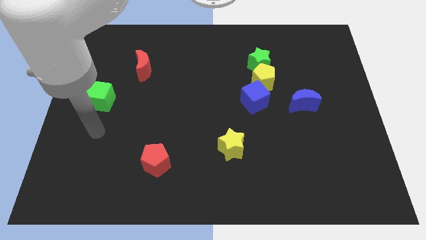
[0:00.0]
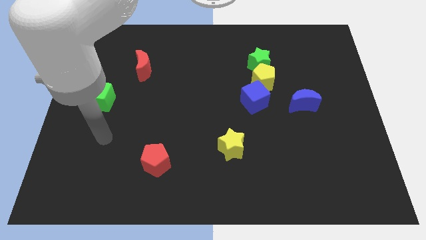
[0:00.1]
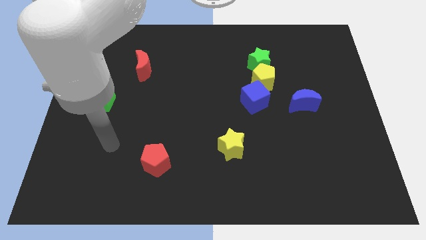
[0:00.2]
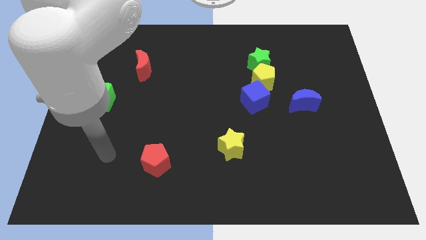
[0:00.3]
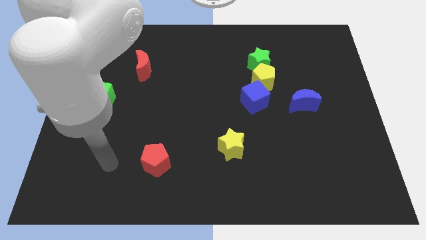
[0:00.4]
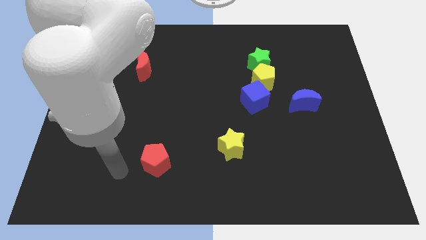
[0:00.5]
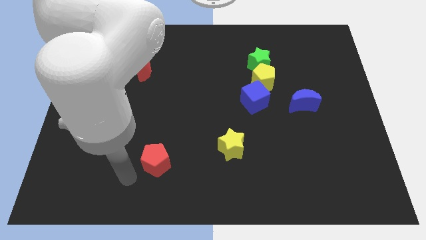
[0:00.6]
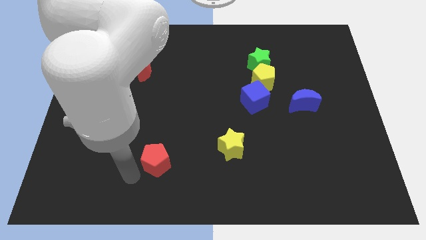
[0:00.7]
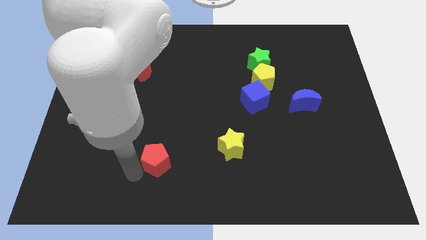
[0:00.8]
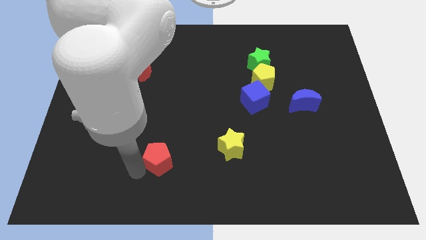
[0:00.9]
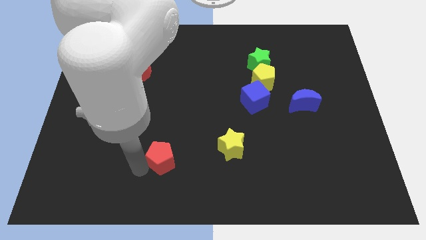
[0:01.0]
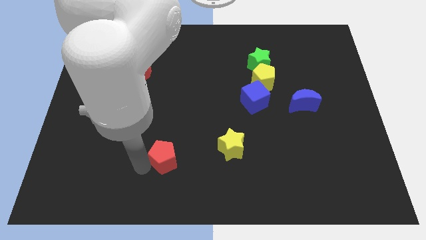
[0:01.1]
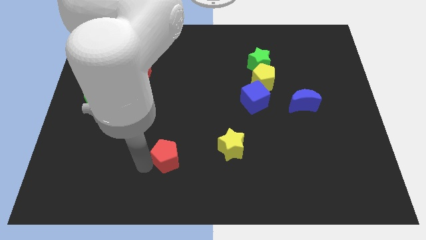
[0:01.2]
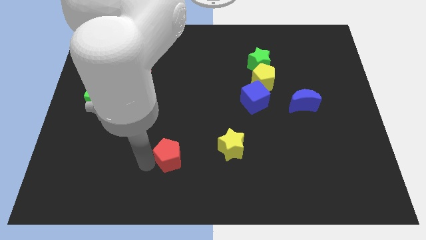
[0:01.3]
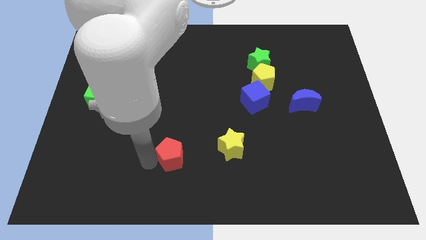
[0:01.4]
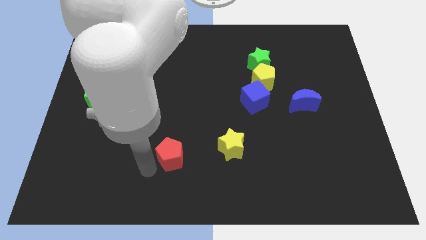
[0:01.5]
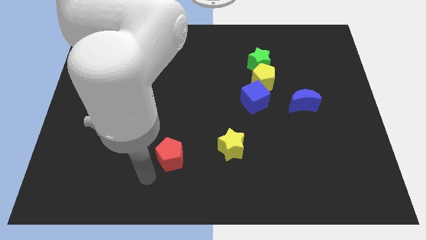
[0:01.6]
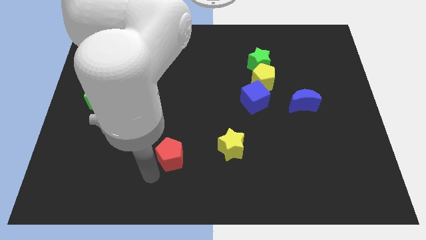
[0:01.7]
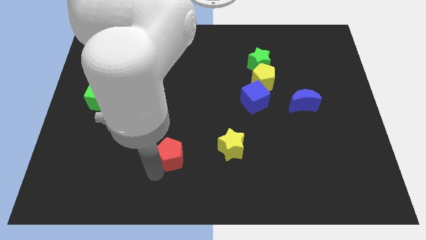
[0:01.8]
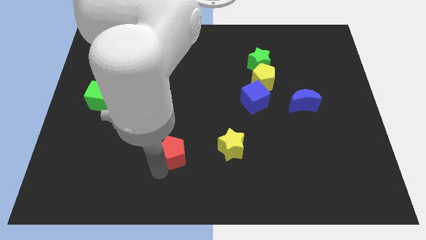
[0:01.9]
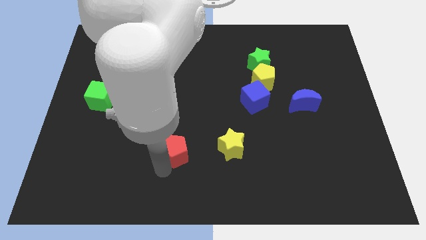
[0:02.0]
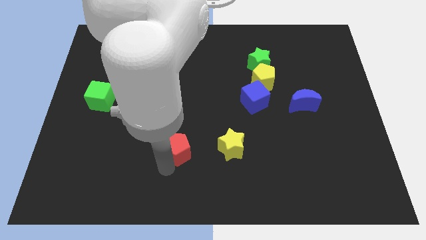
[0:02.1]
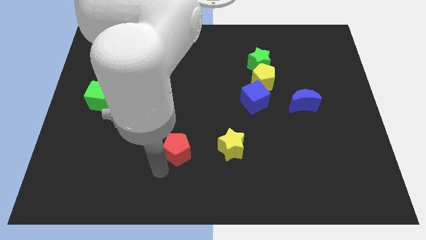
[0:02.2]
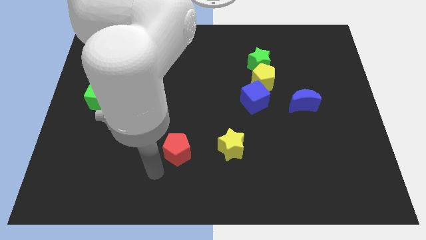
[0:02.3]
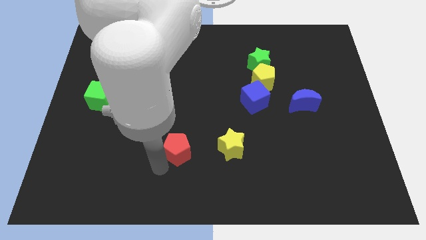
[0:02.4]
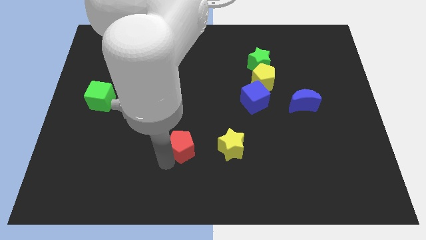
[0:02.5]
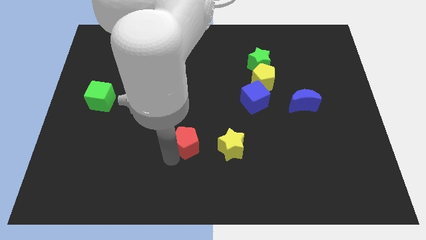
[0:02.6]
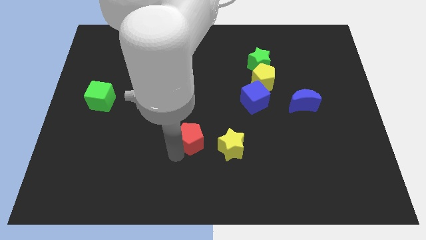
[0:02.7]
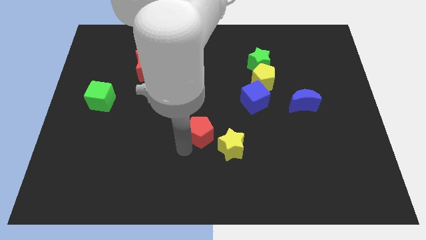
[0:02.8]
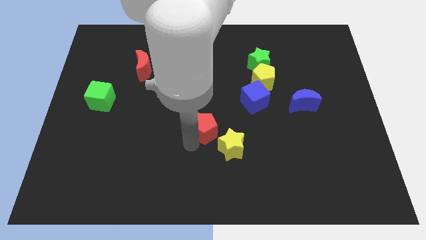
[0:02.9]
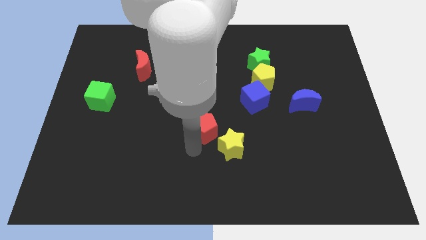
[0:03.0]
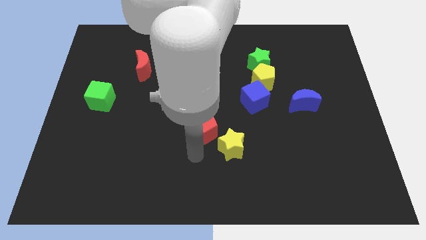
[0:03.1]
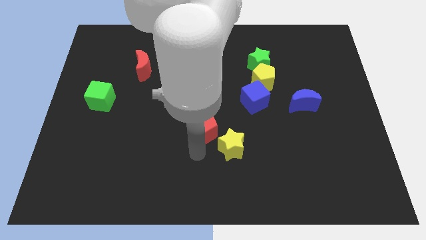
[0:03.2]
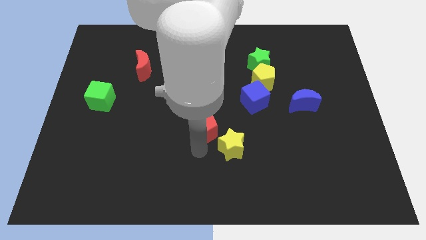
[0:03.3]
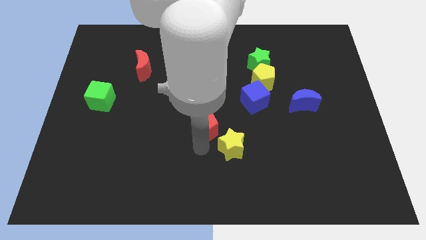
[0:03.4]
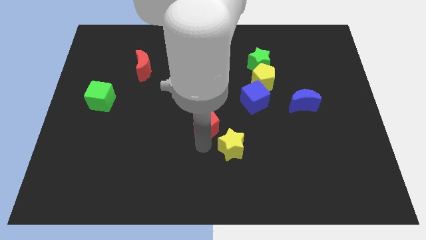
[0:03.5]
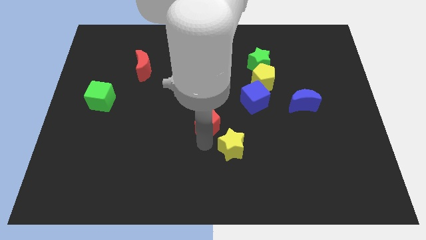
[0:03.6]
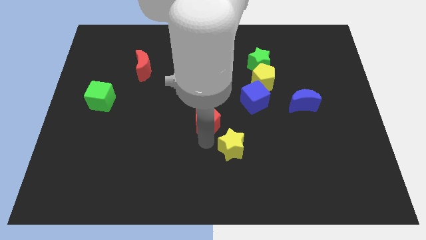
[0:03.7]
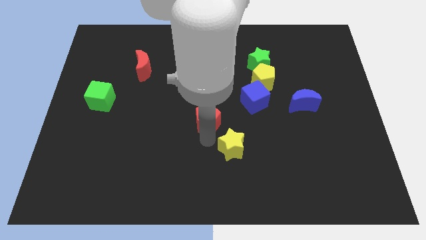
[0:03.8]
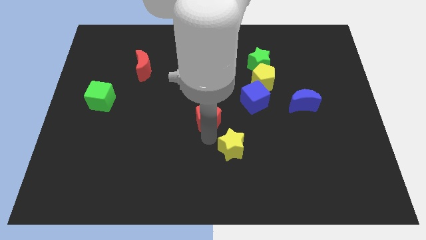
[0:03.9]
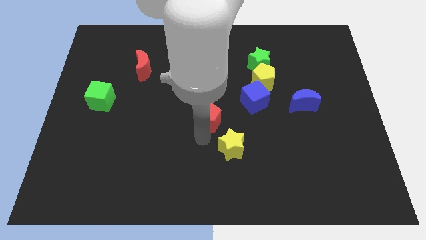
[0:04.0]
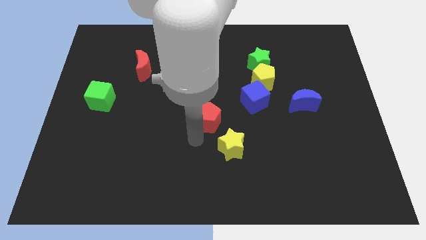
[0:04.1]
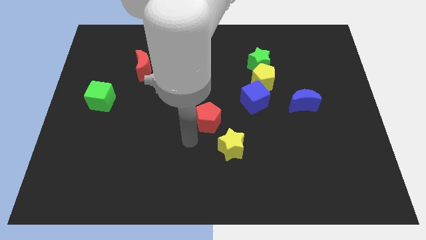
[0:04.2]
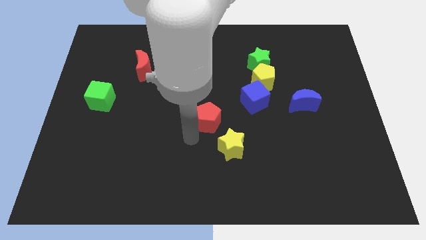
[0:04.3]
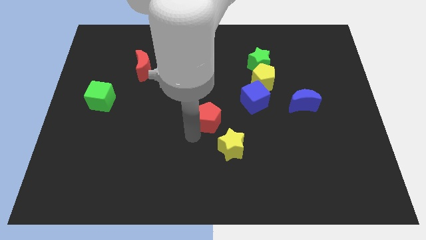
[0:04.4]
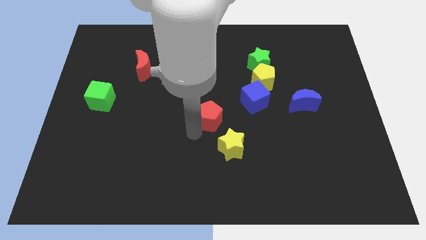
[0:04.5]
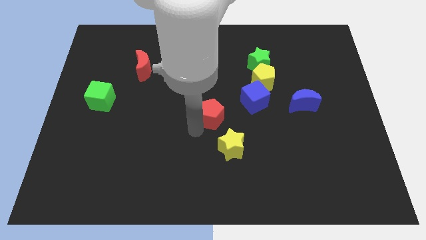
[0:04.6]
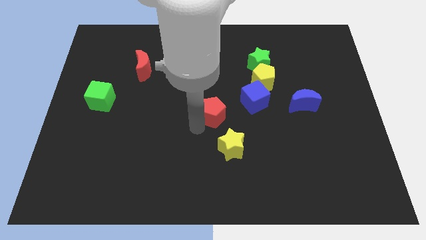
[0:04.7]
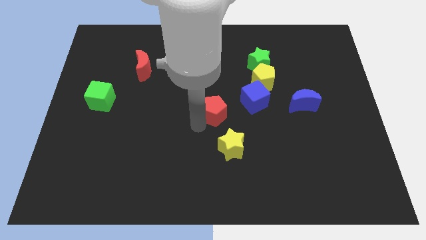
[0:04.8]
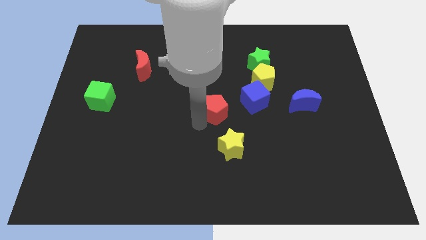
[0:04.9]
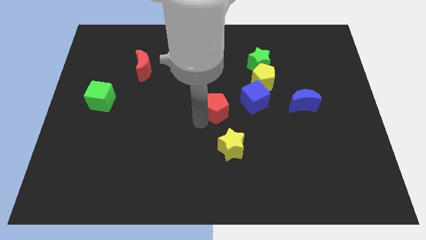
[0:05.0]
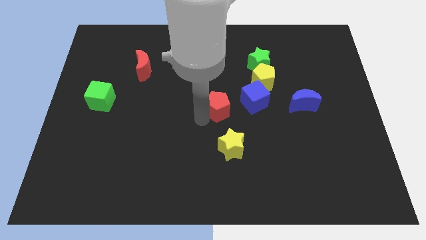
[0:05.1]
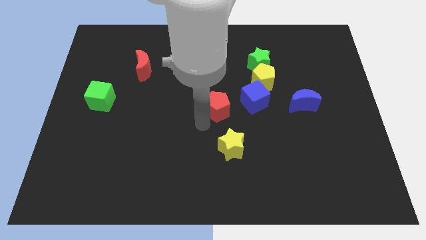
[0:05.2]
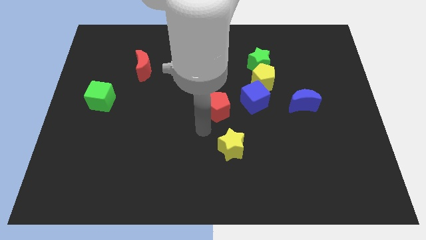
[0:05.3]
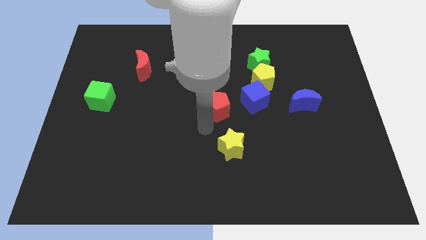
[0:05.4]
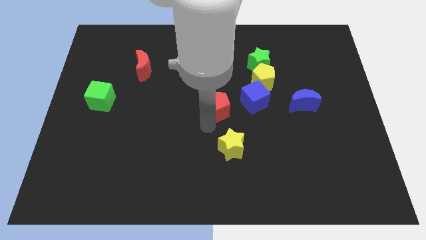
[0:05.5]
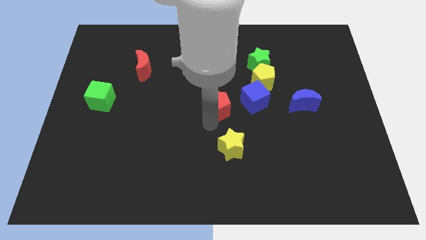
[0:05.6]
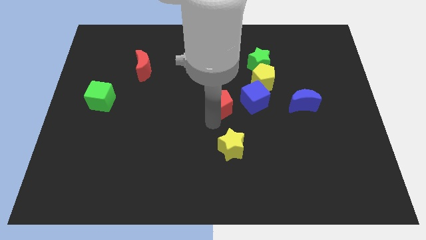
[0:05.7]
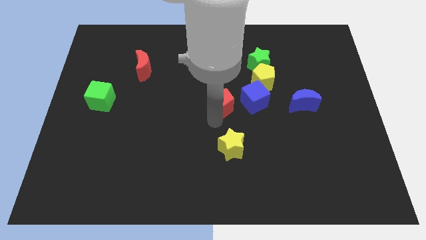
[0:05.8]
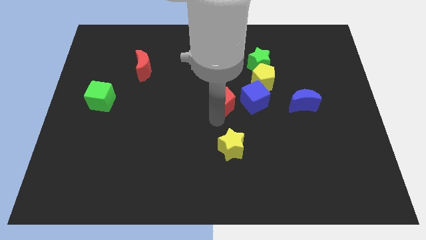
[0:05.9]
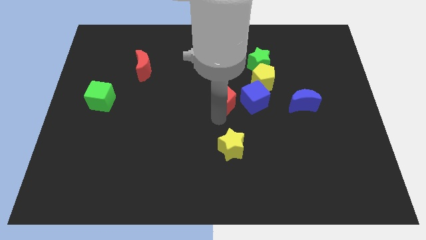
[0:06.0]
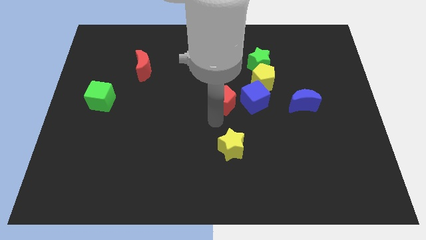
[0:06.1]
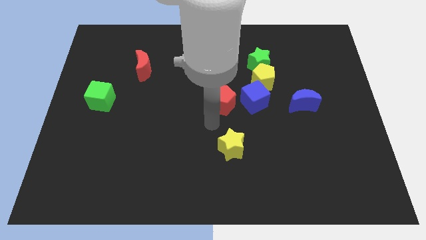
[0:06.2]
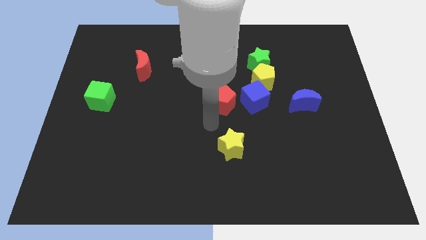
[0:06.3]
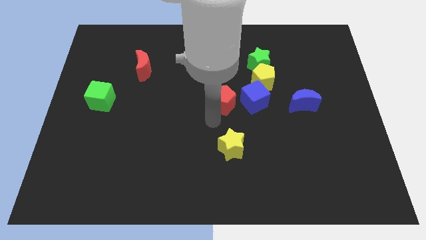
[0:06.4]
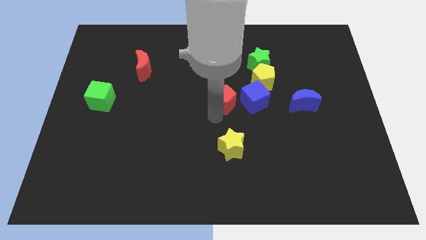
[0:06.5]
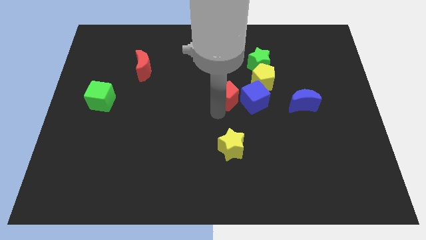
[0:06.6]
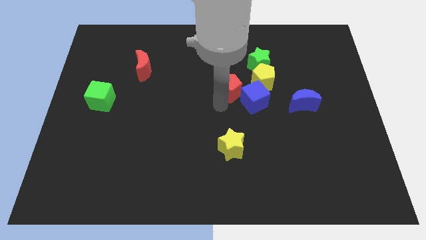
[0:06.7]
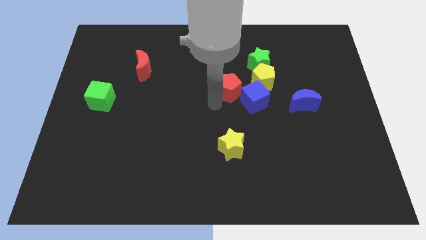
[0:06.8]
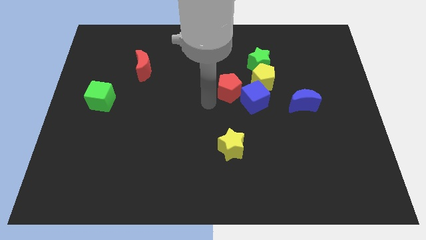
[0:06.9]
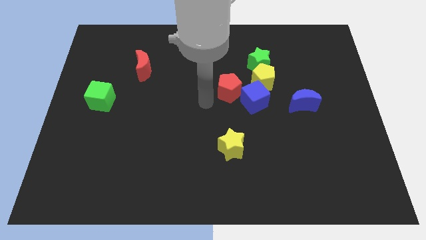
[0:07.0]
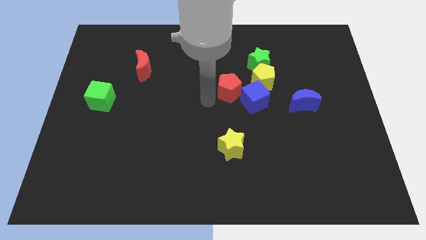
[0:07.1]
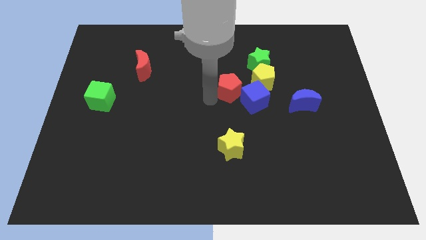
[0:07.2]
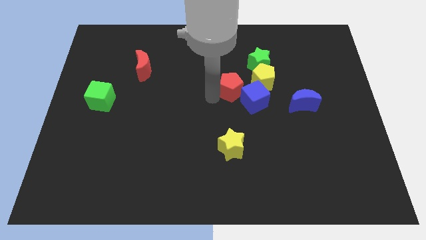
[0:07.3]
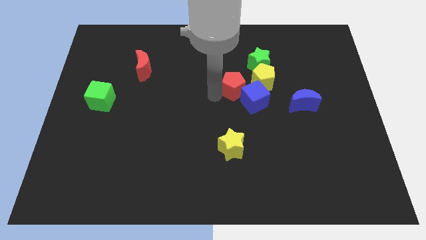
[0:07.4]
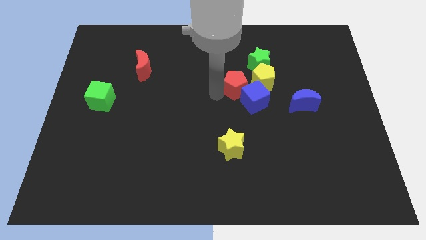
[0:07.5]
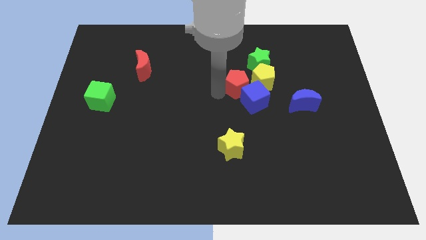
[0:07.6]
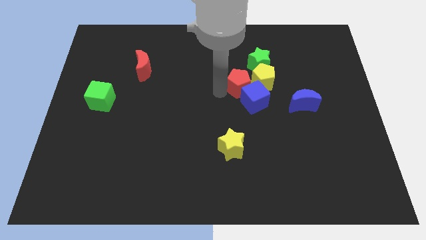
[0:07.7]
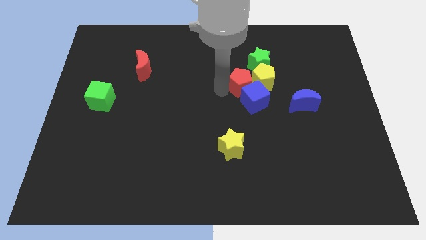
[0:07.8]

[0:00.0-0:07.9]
put the red pentagon towards the yellow pentagon
